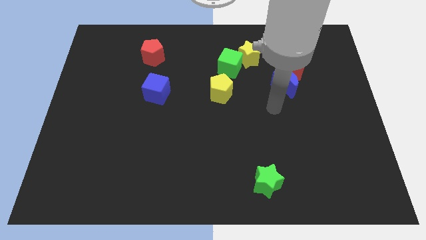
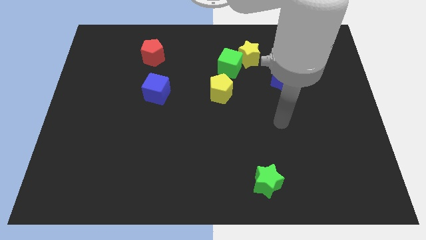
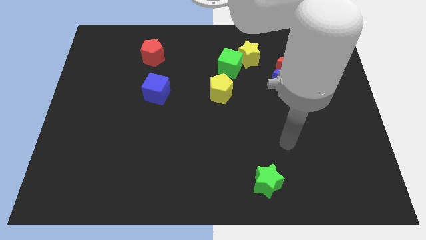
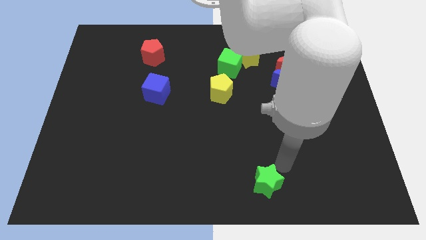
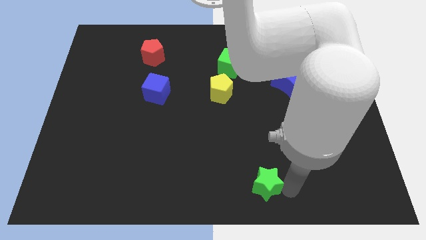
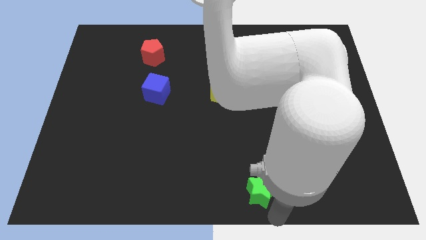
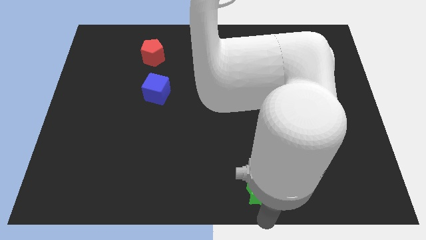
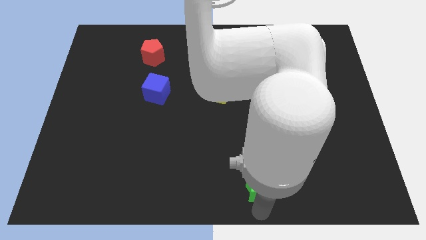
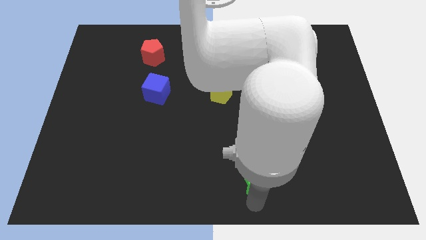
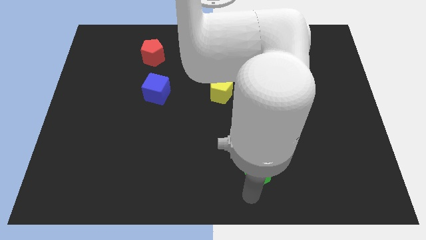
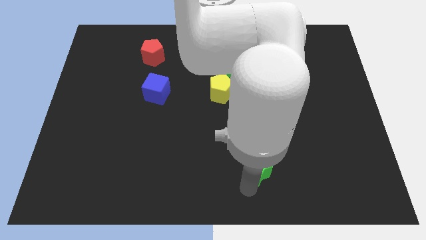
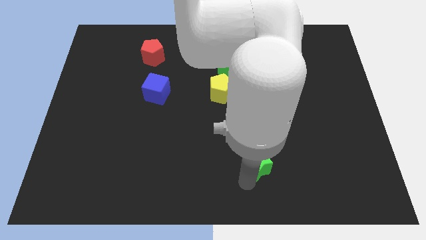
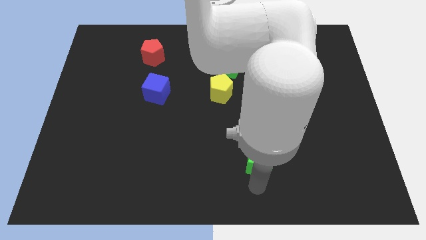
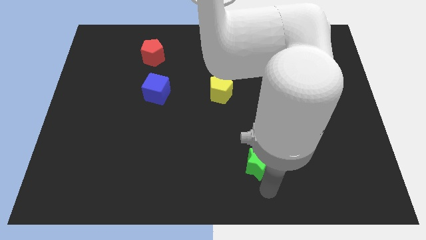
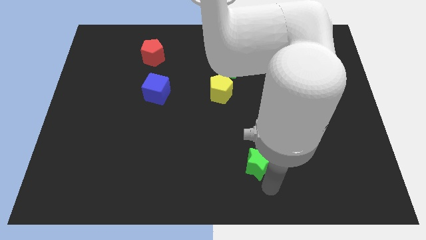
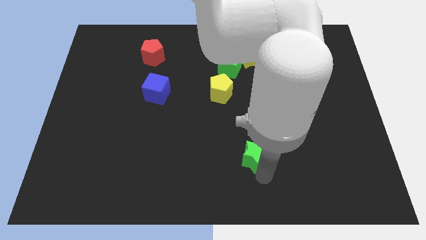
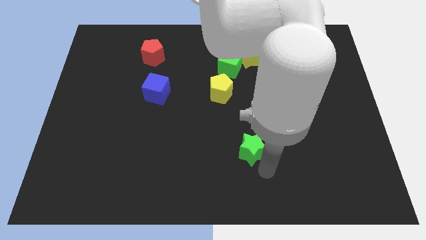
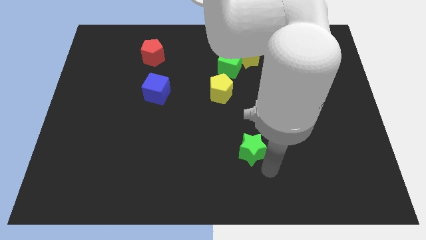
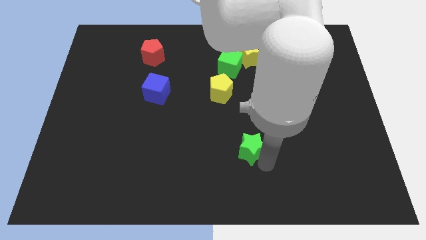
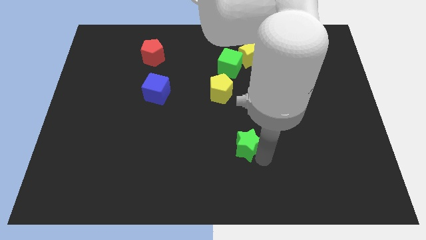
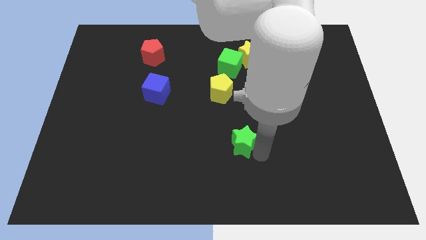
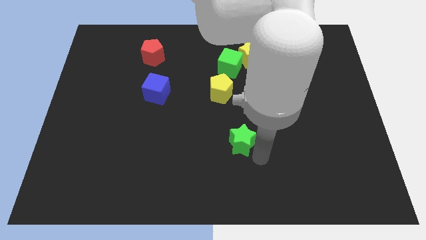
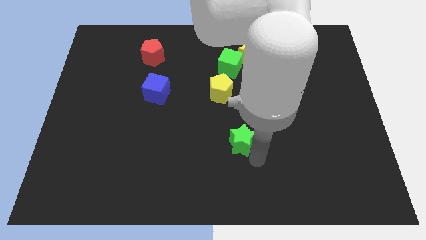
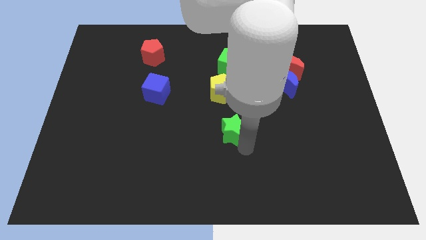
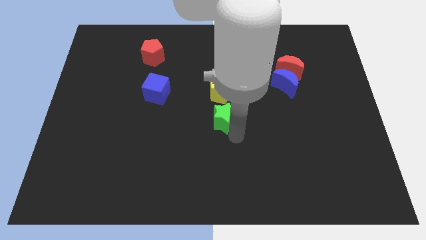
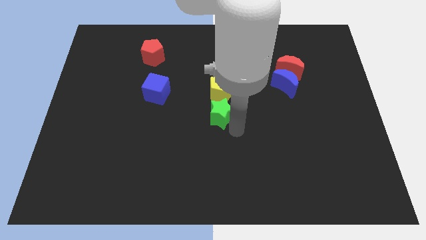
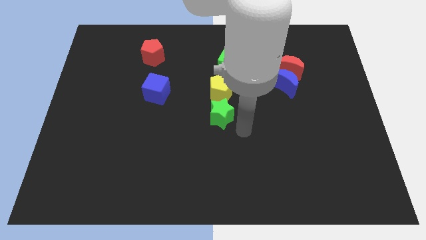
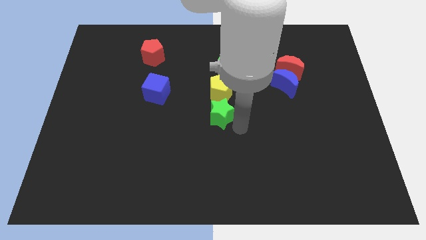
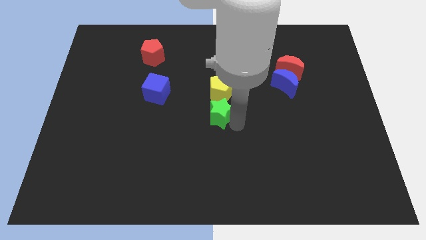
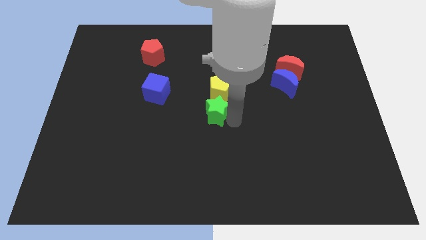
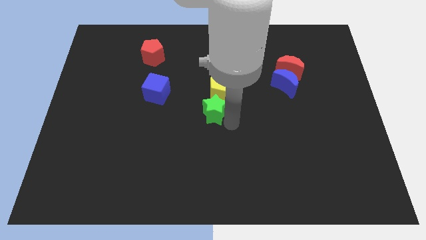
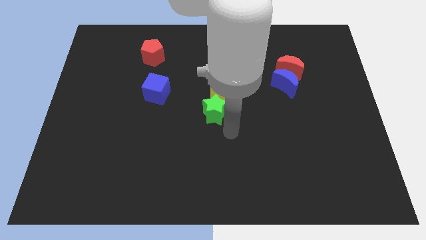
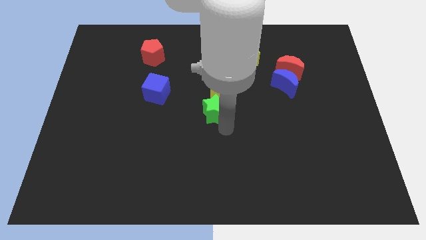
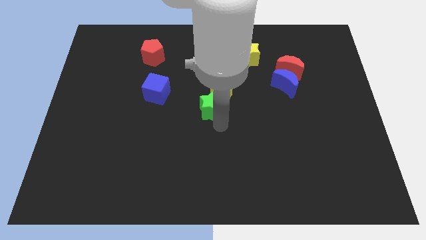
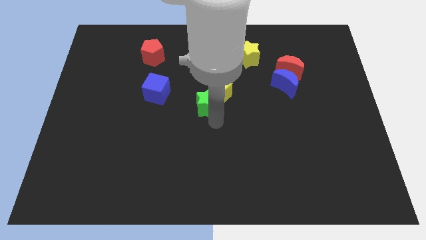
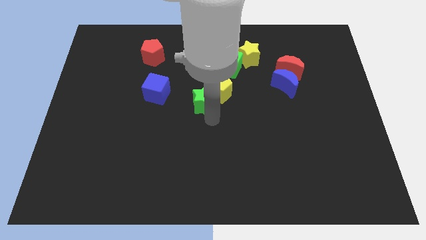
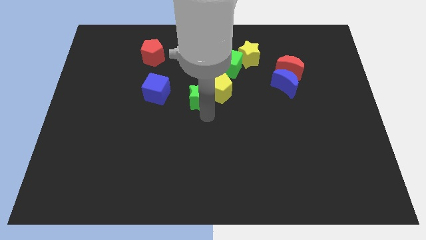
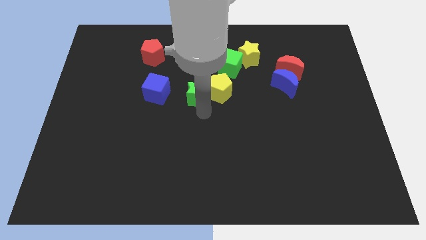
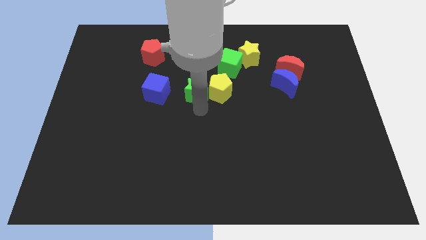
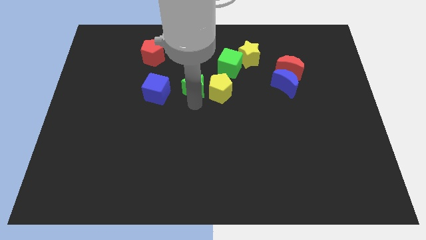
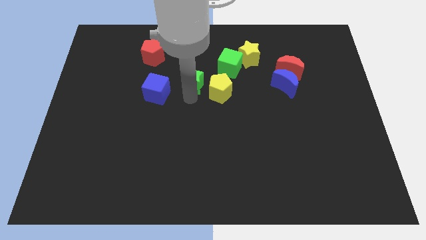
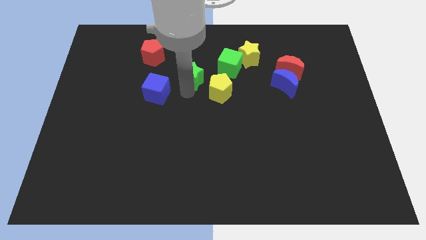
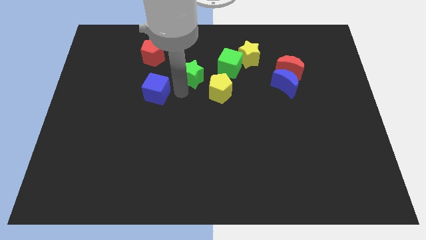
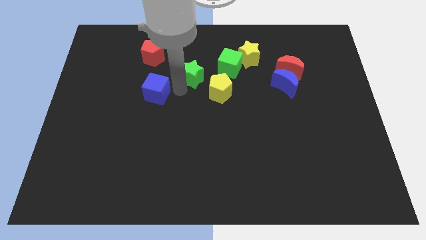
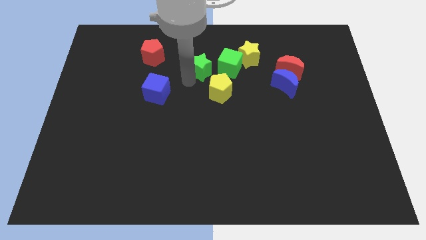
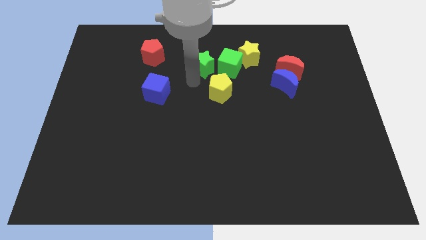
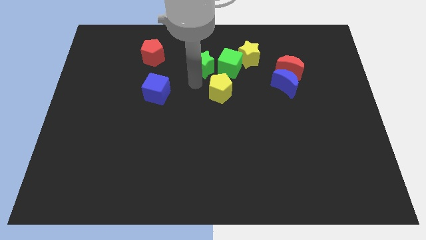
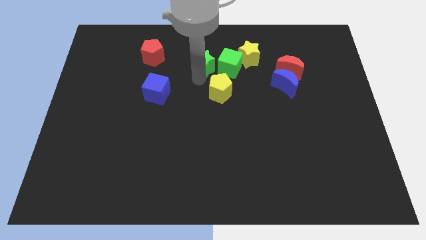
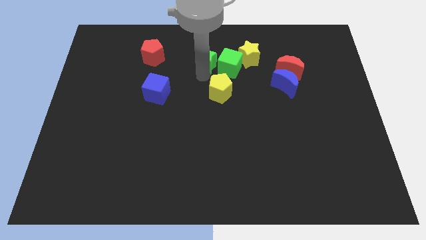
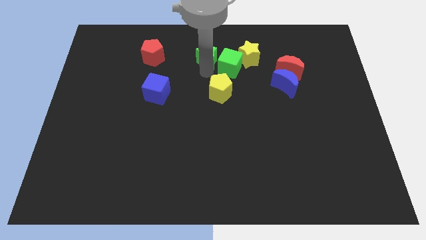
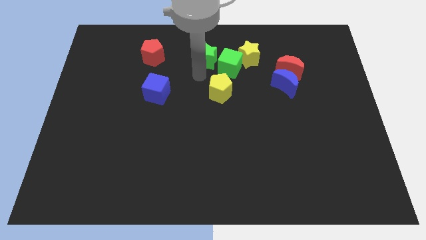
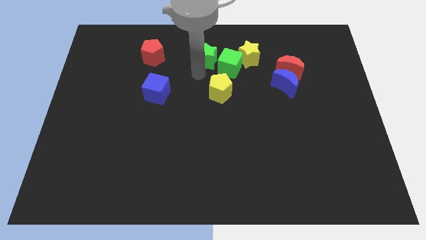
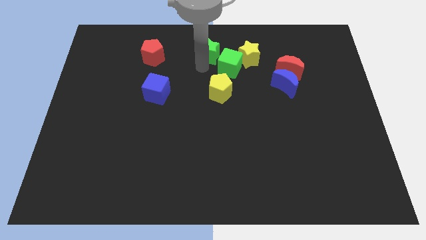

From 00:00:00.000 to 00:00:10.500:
move the green star to the top

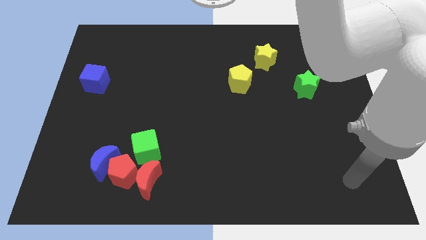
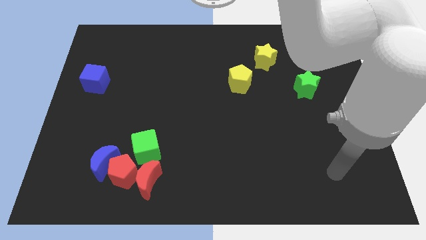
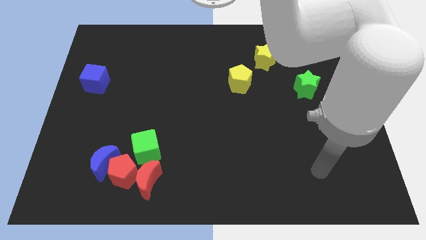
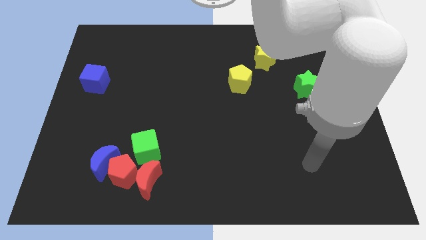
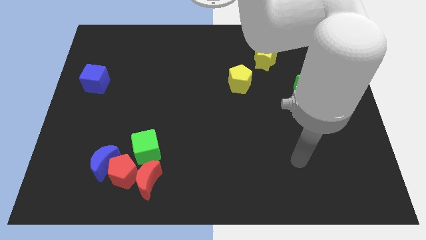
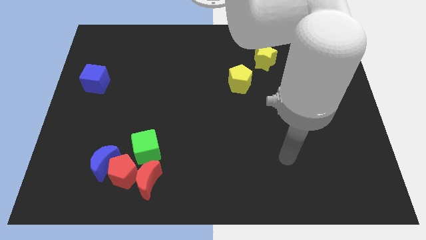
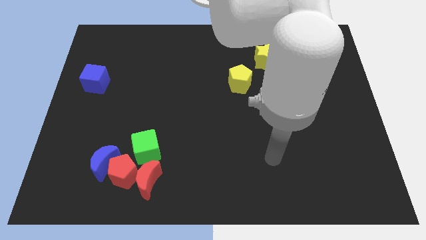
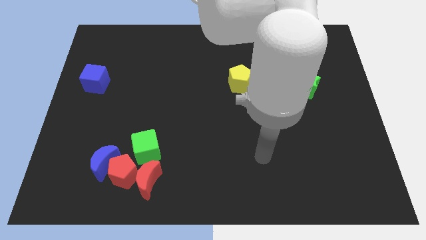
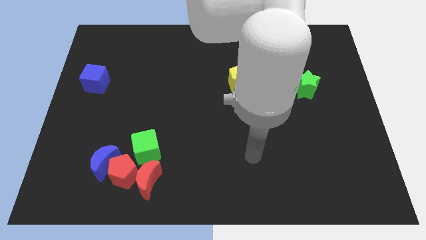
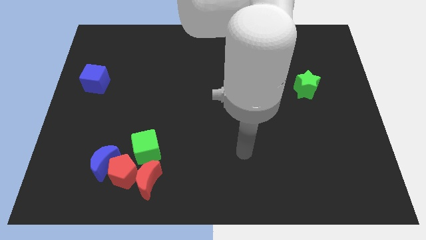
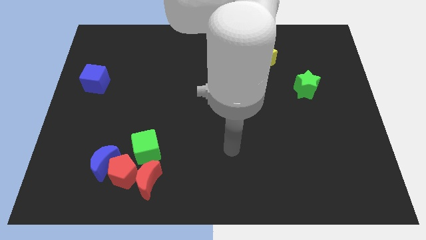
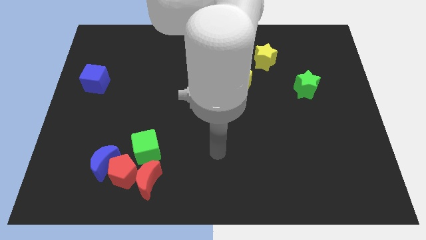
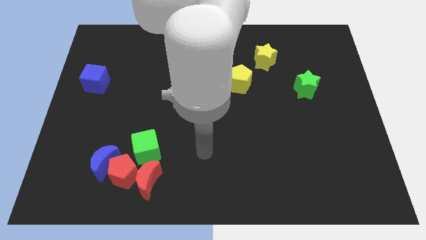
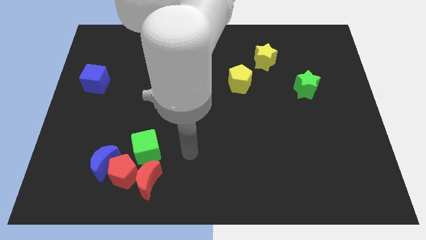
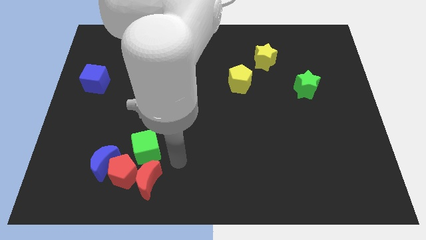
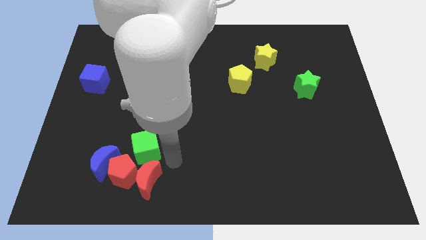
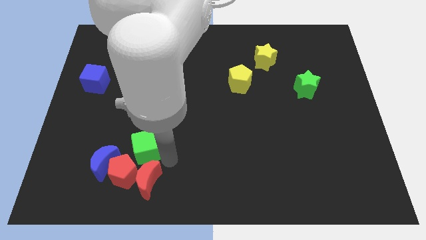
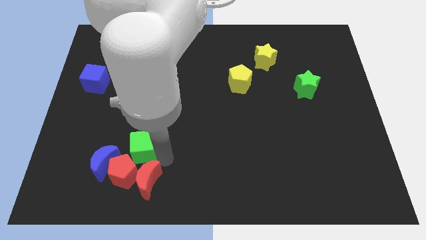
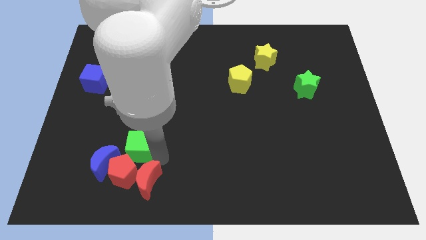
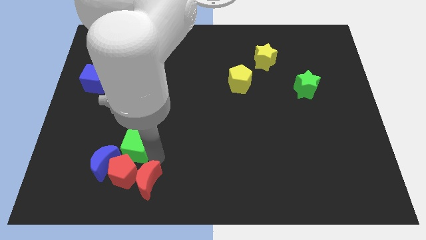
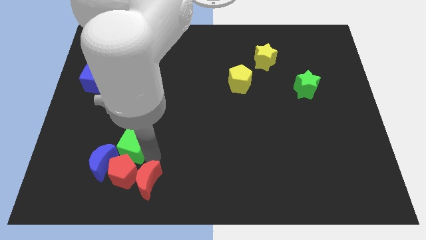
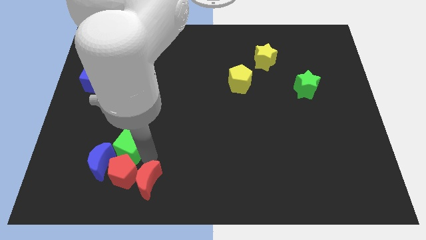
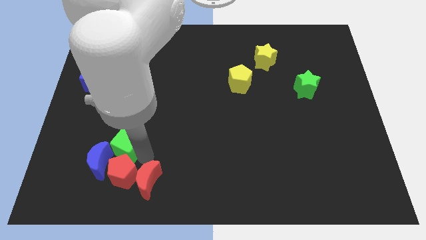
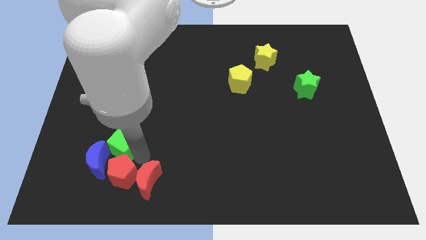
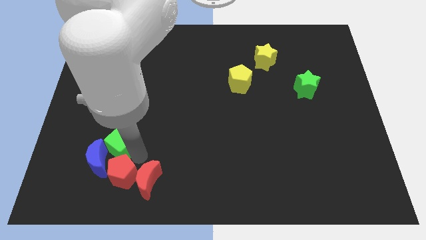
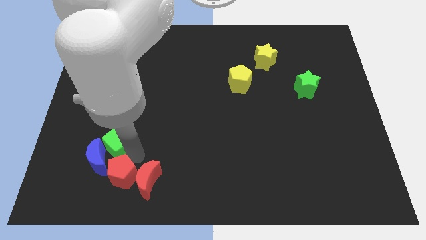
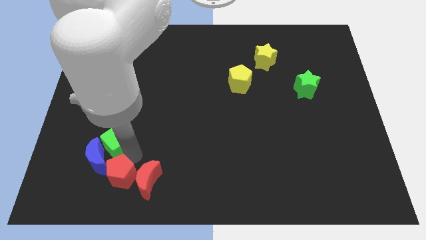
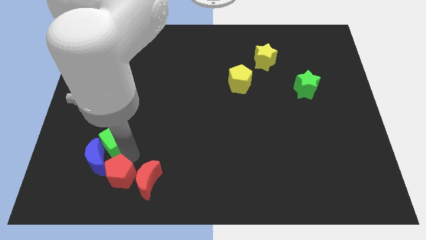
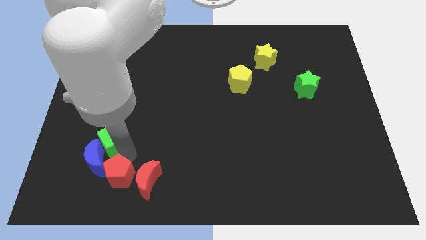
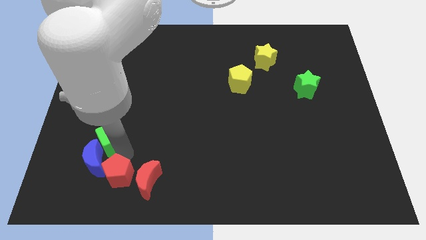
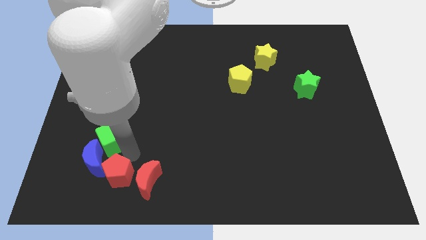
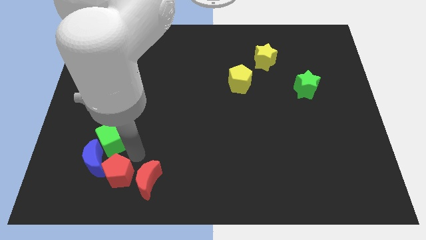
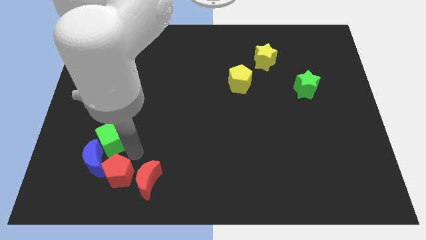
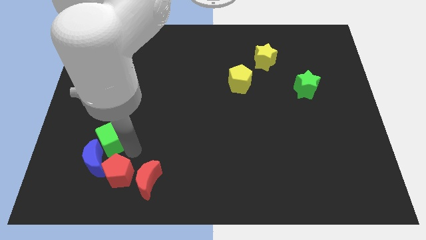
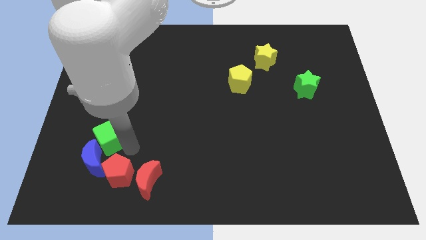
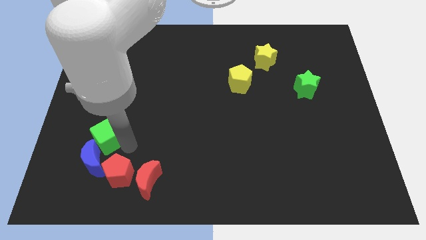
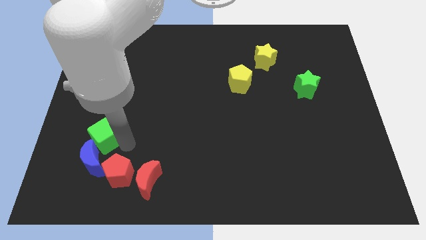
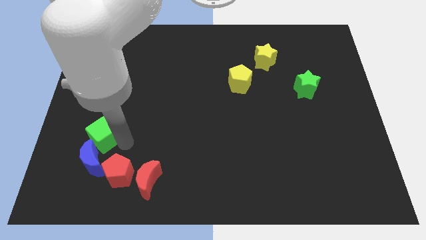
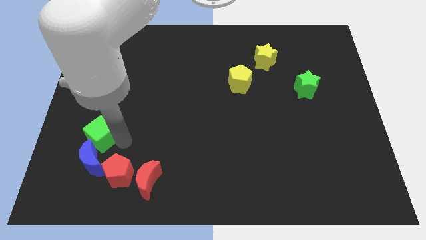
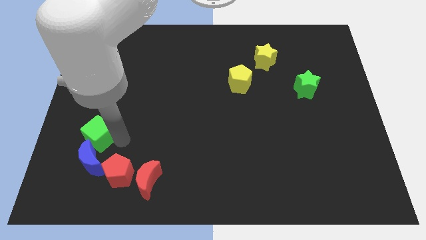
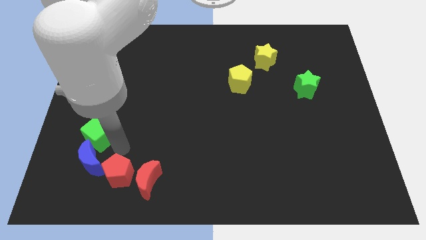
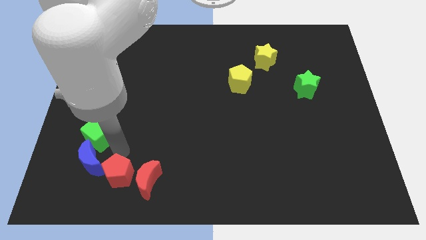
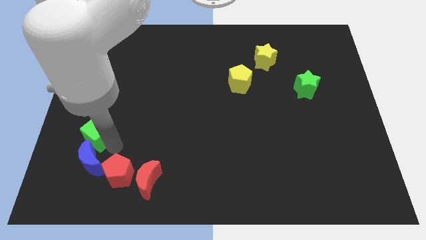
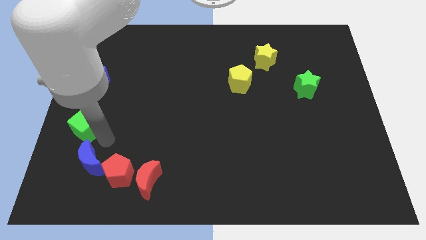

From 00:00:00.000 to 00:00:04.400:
slide the green cube to the left side of the board
